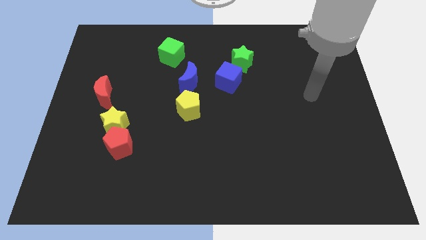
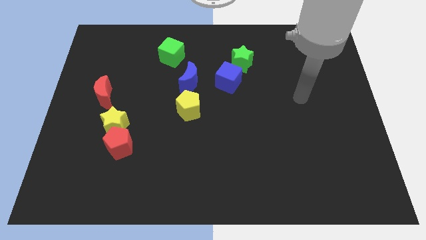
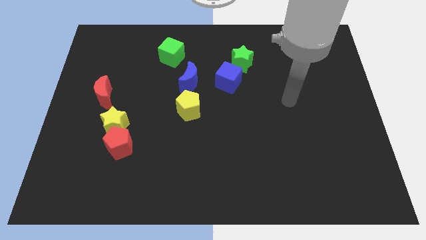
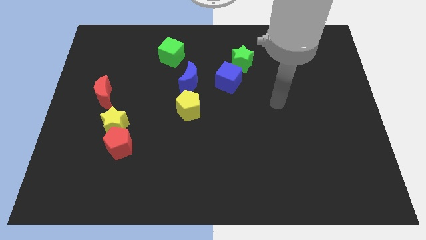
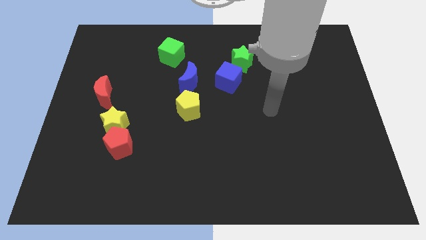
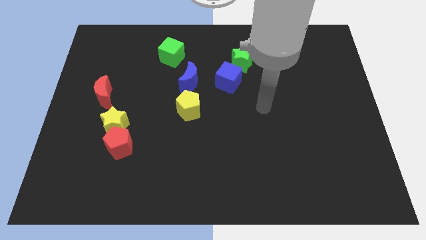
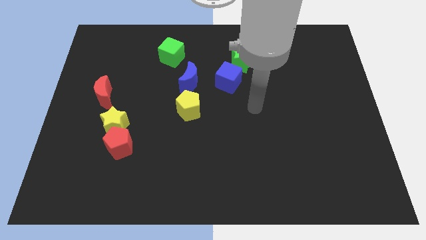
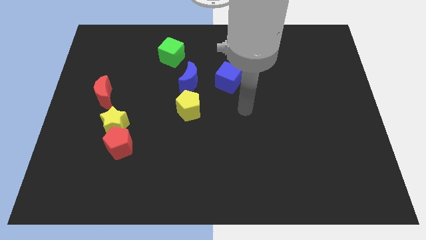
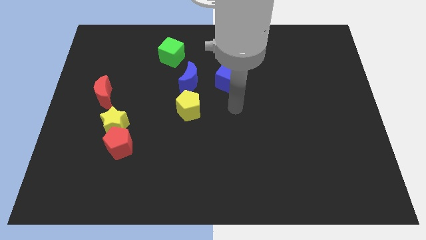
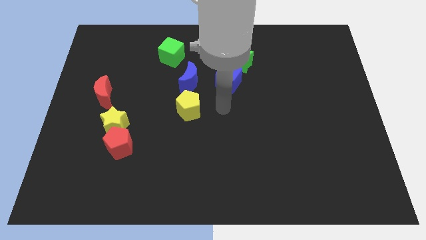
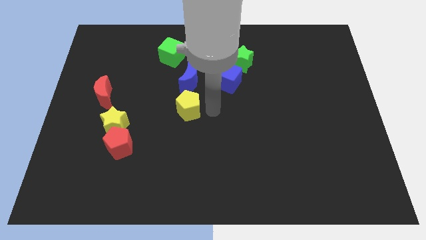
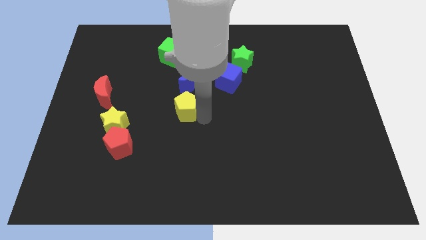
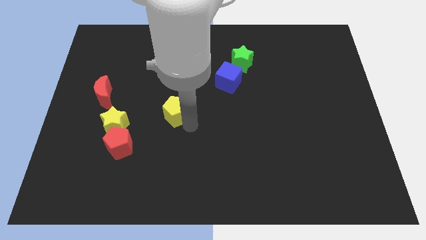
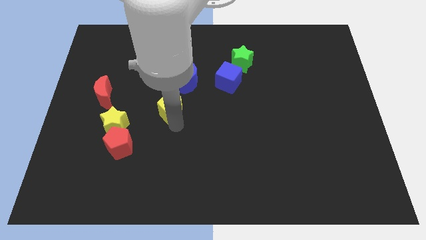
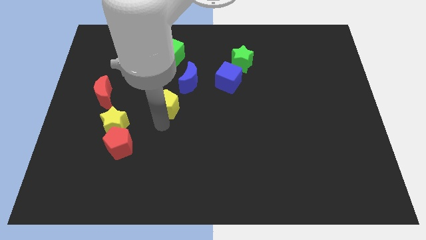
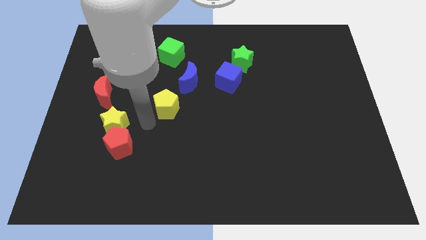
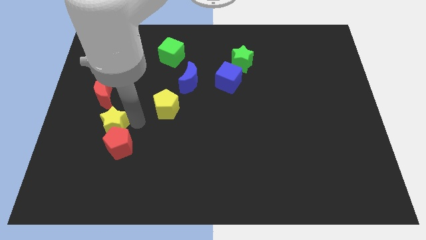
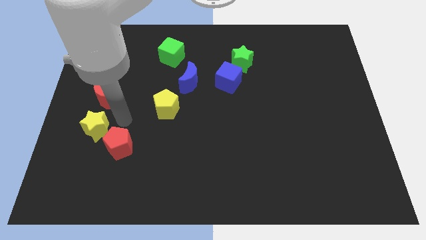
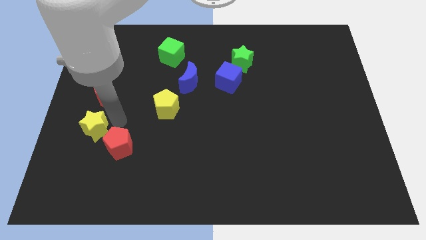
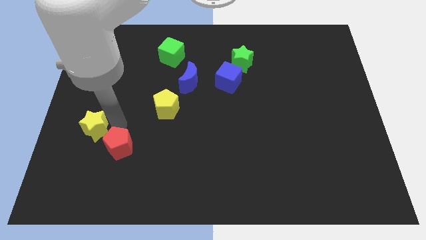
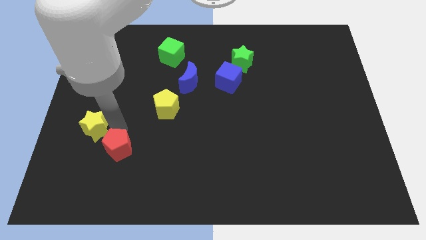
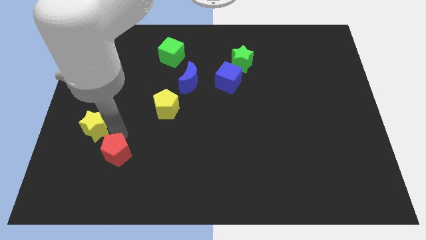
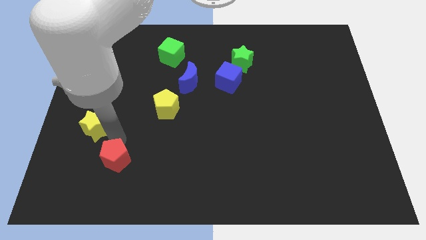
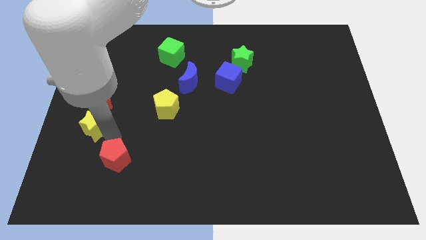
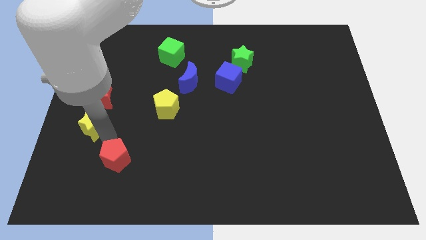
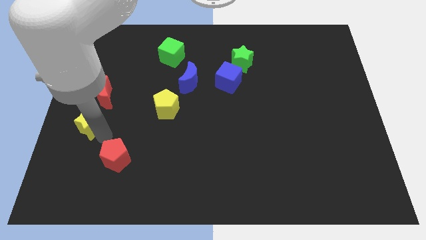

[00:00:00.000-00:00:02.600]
pull the red pentagon apart from the yellow star

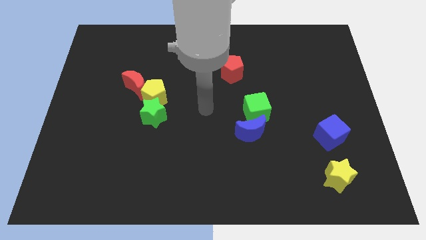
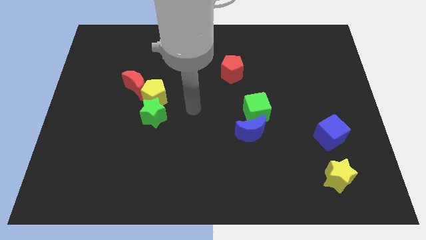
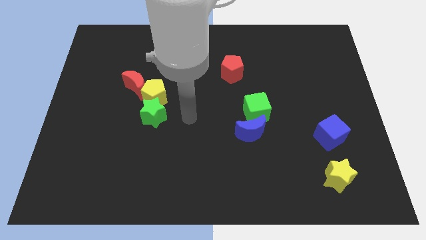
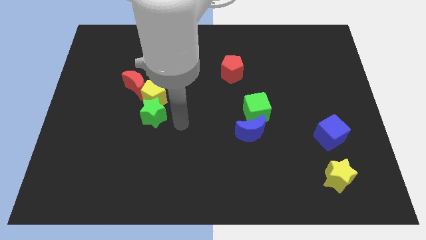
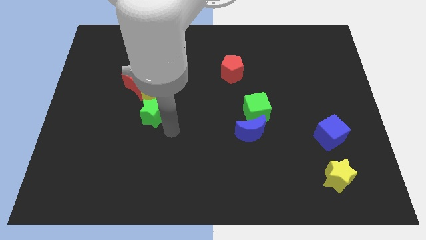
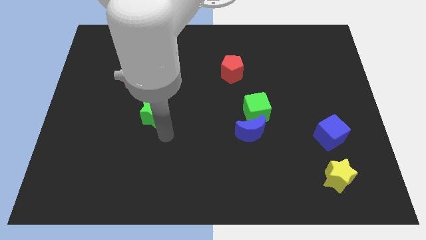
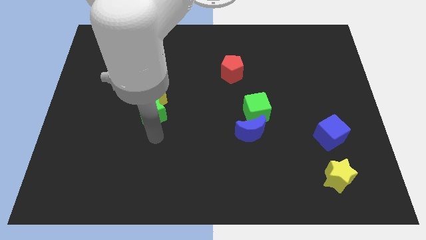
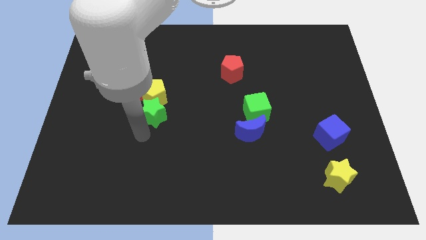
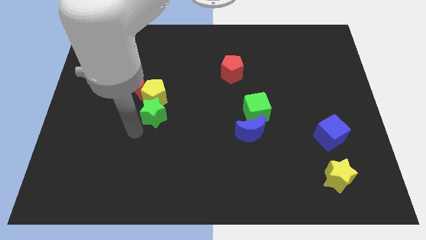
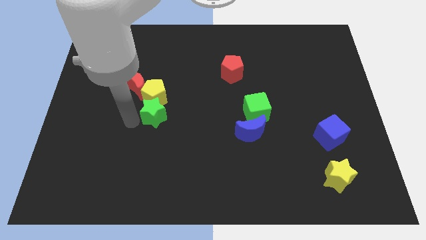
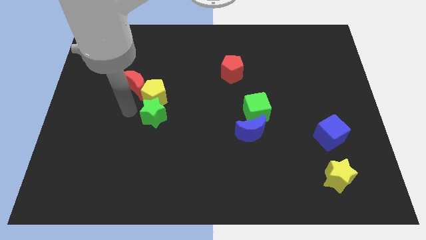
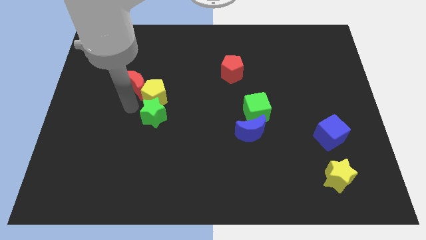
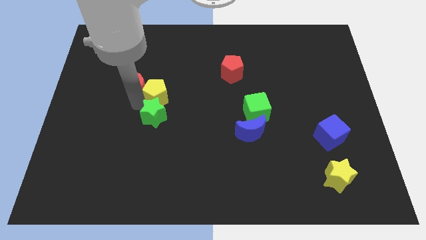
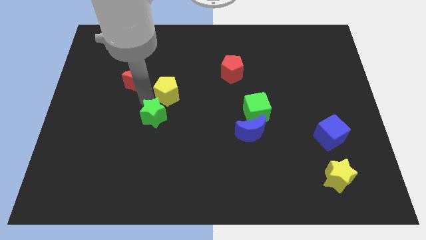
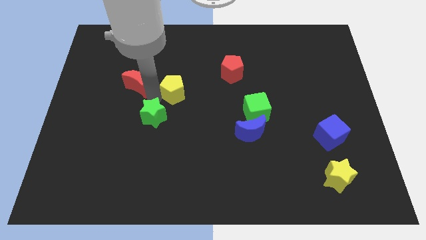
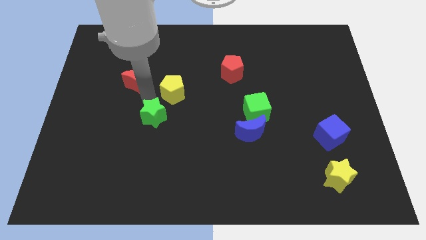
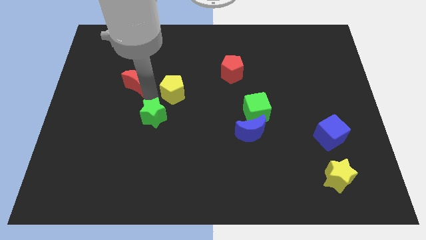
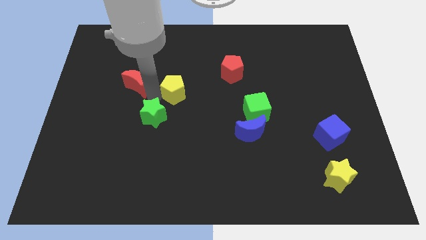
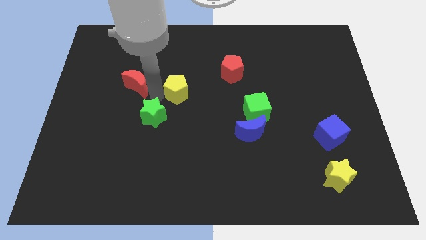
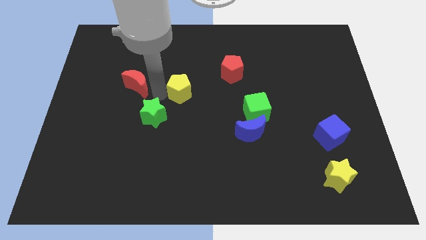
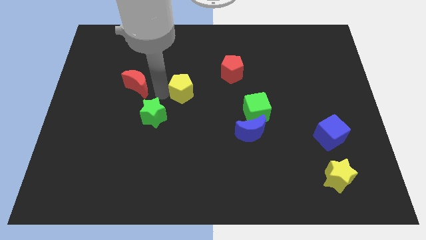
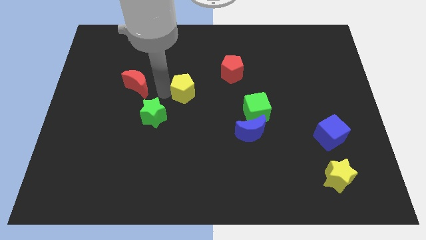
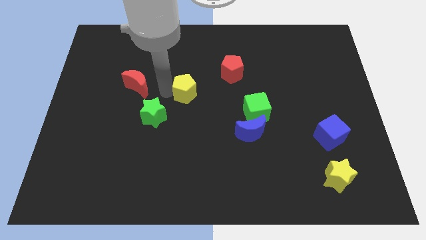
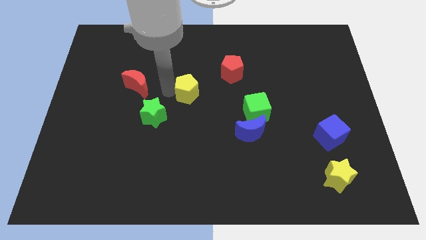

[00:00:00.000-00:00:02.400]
move the yellow pentagon away from the green star and red moon

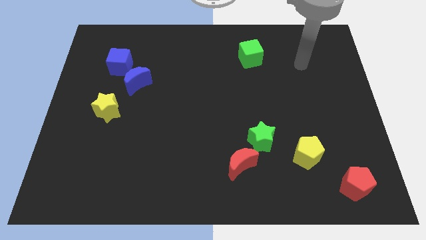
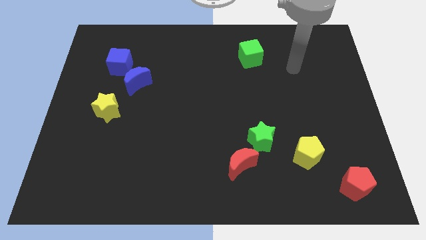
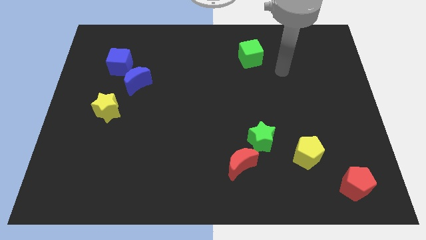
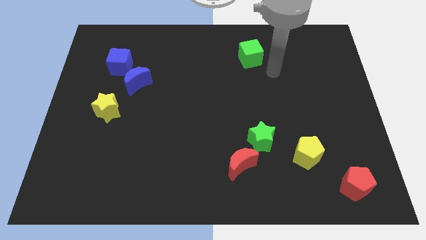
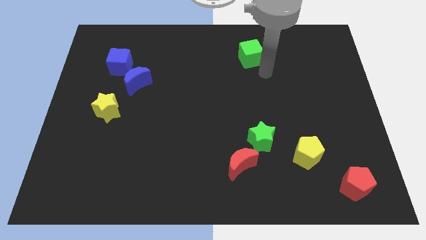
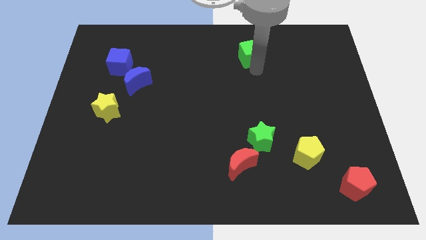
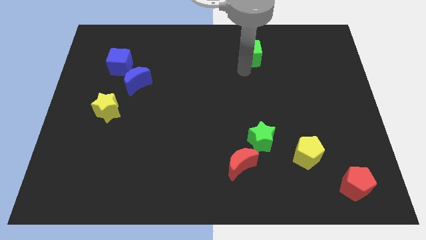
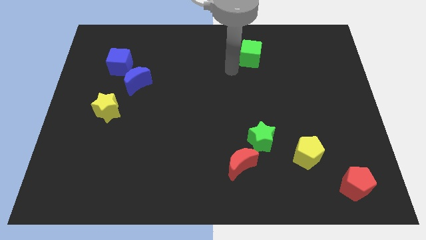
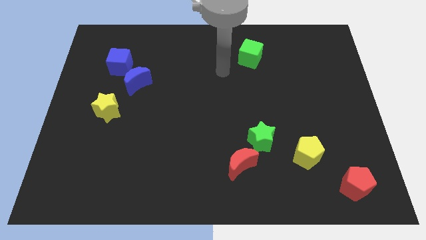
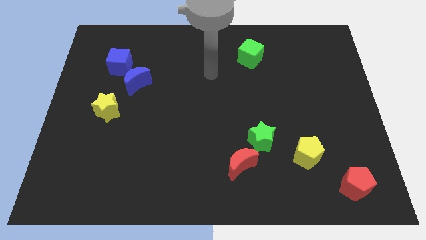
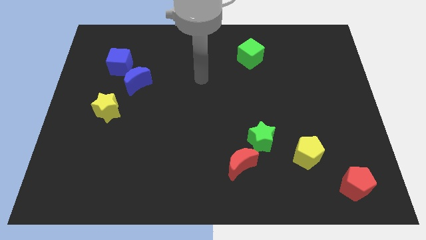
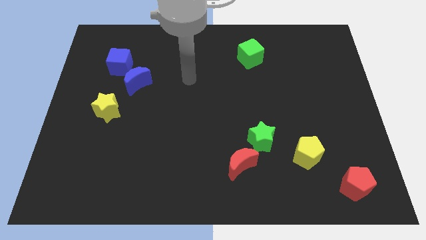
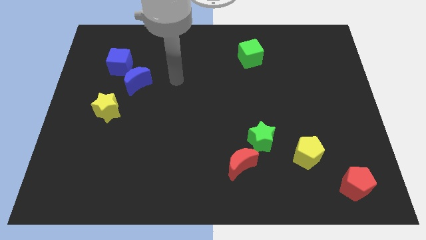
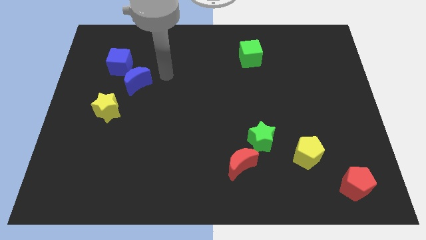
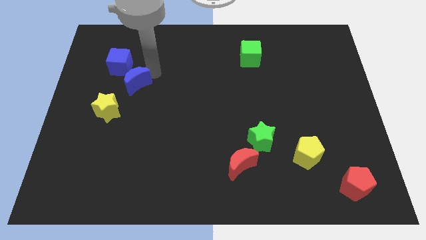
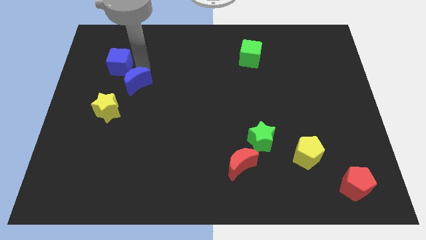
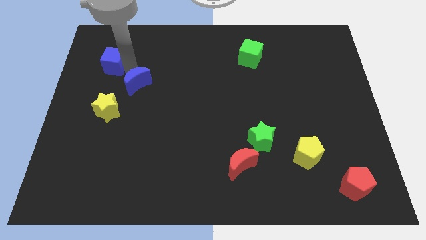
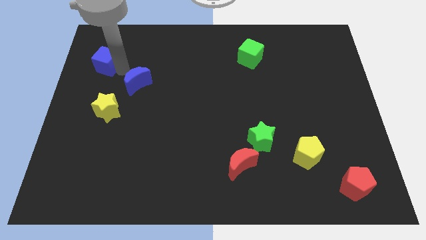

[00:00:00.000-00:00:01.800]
move the blue moon away from the blue cube

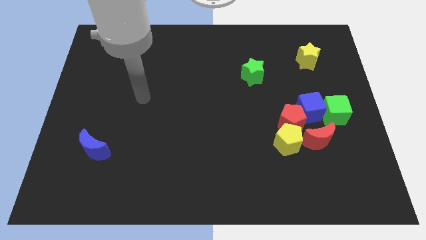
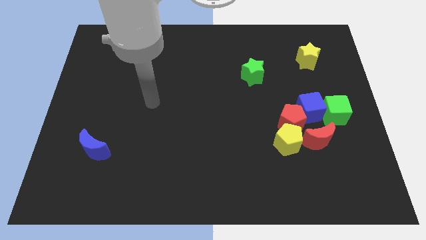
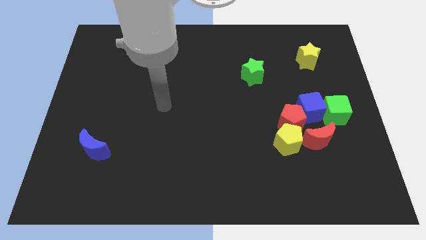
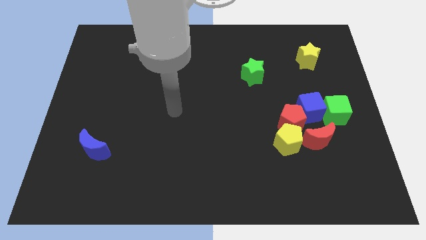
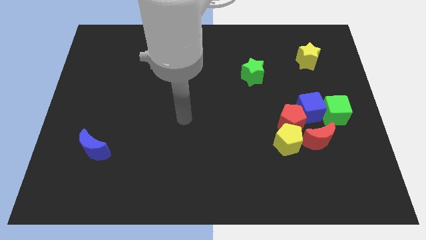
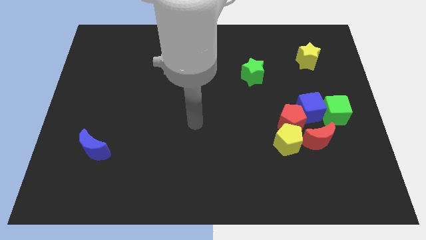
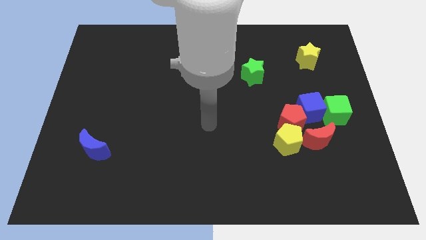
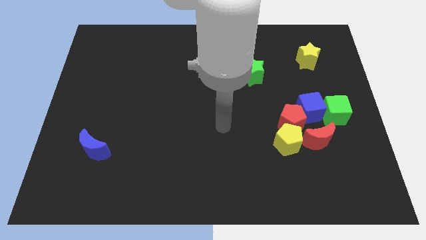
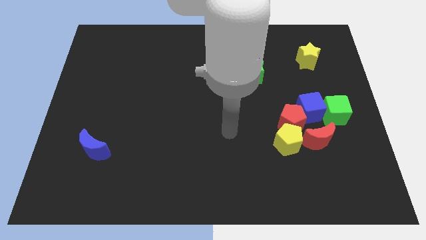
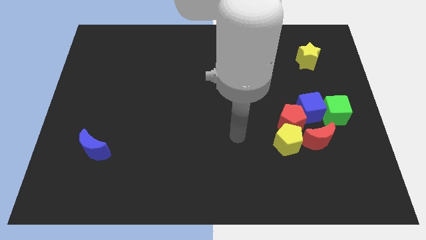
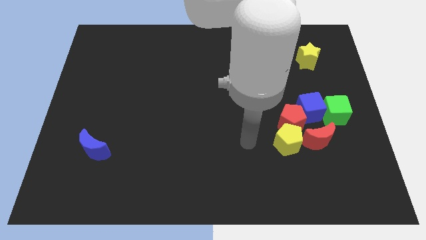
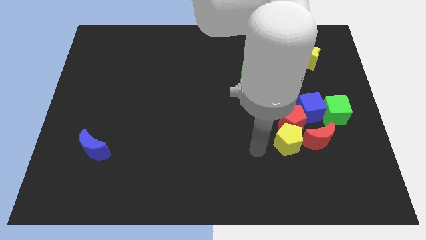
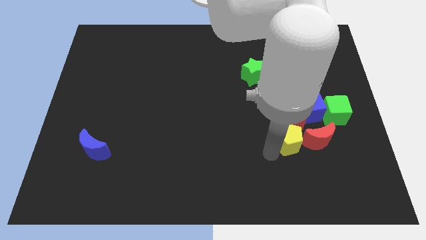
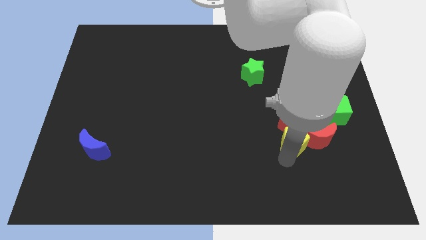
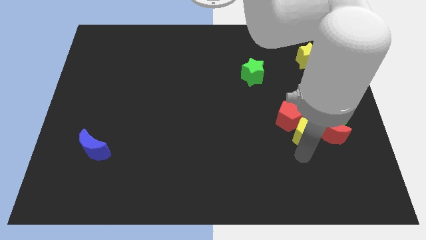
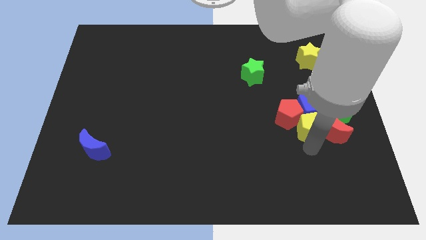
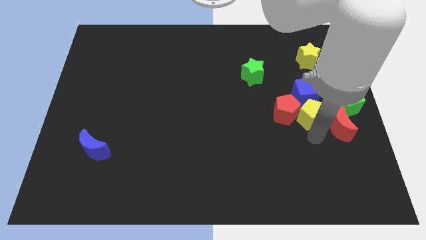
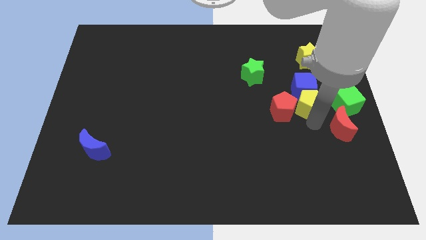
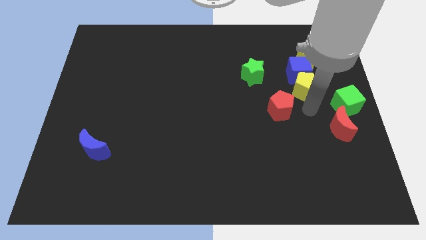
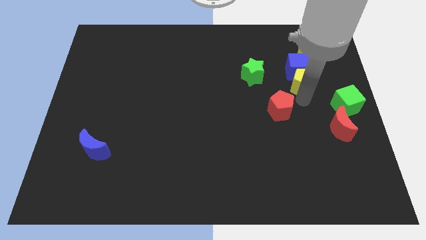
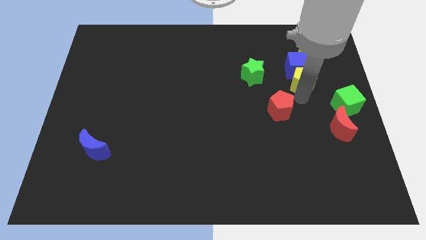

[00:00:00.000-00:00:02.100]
separate the red pentagon from the group of blocks

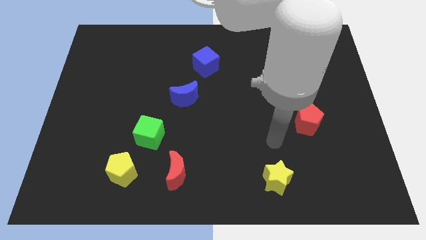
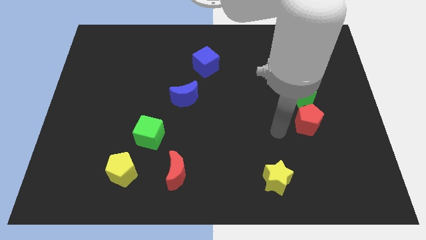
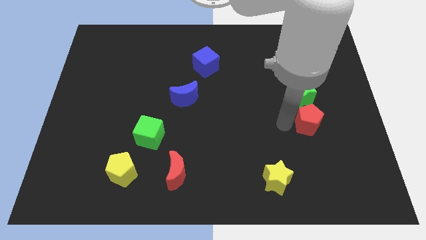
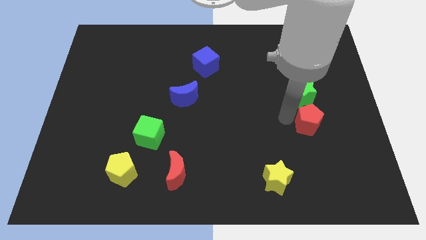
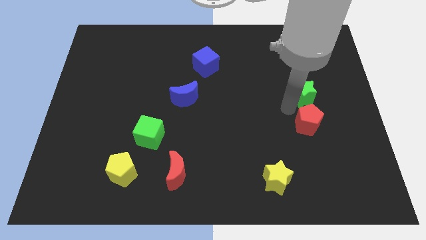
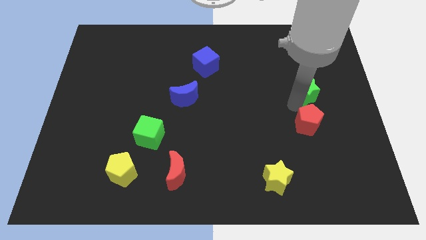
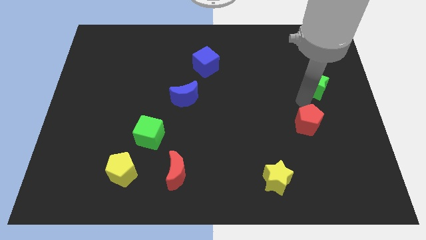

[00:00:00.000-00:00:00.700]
separate the red pentagon from the green star
